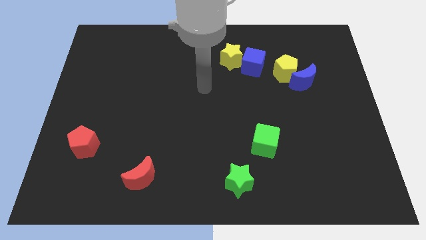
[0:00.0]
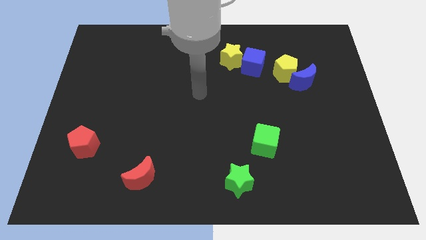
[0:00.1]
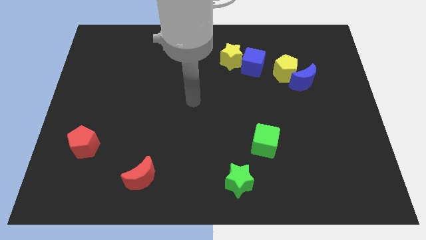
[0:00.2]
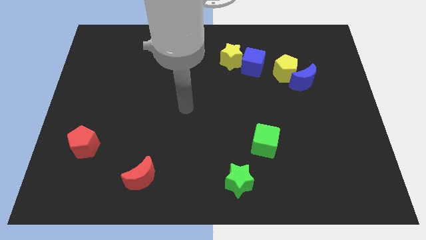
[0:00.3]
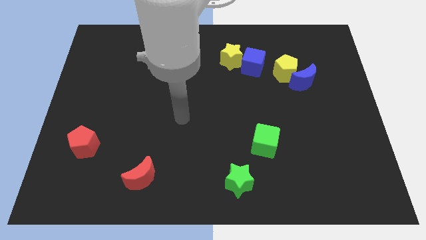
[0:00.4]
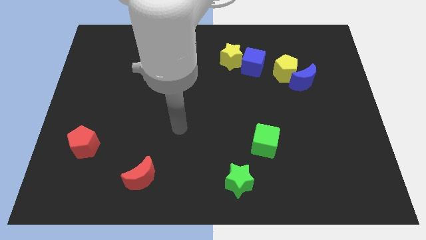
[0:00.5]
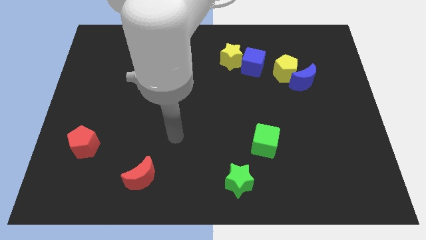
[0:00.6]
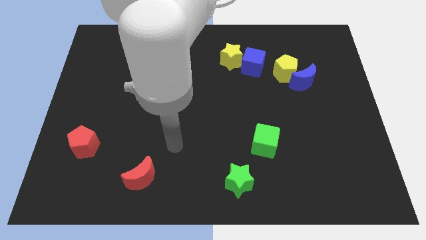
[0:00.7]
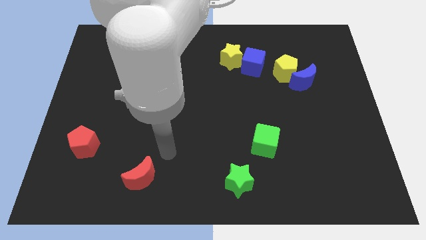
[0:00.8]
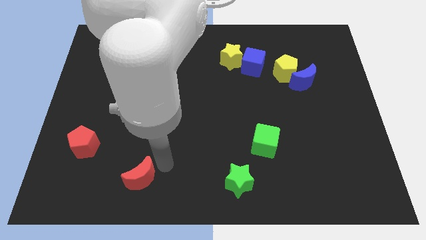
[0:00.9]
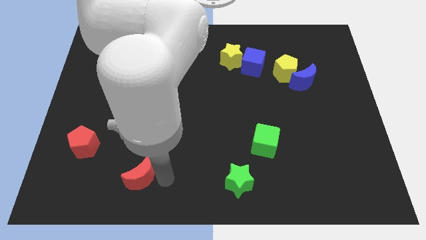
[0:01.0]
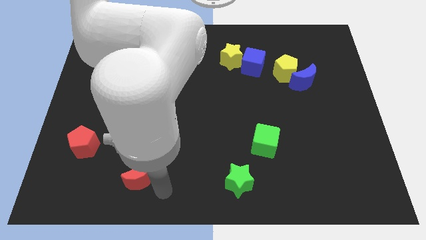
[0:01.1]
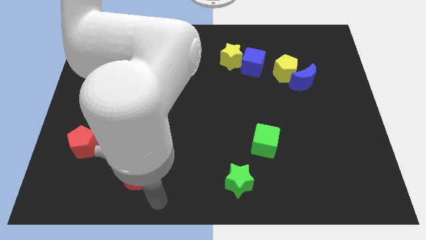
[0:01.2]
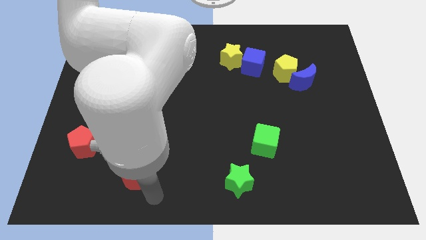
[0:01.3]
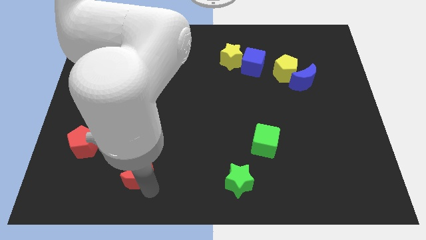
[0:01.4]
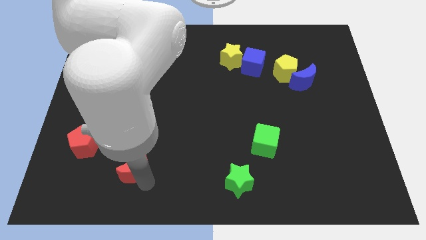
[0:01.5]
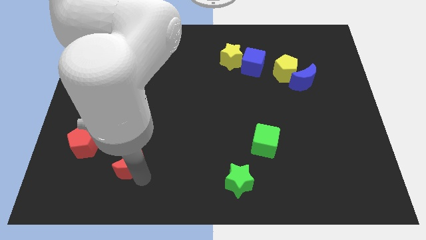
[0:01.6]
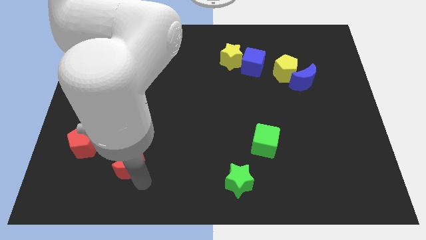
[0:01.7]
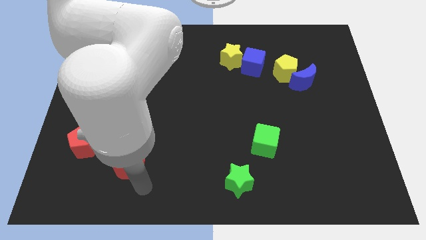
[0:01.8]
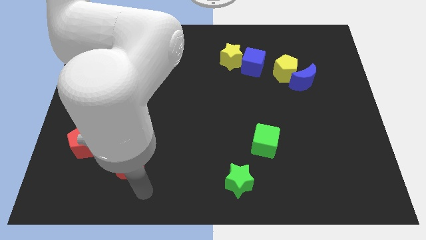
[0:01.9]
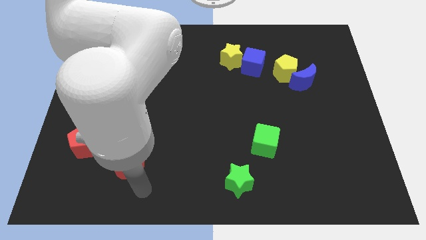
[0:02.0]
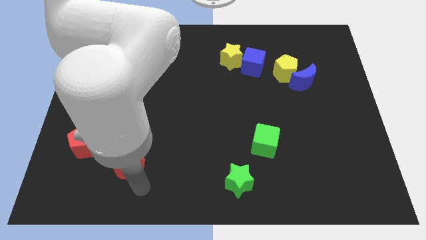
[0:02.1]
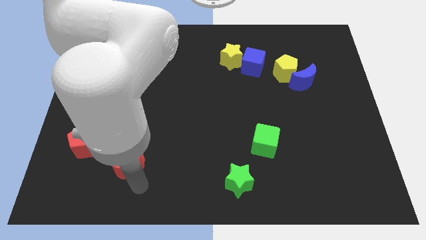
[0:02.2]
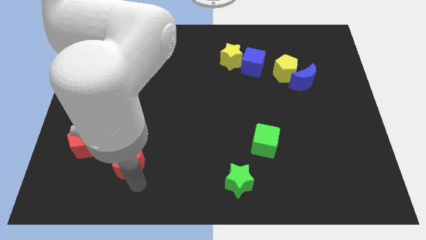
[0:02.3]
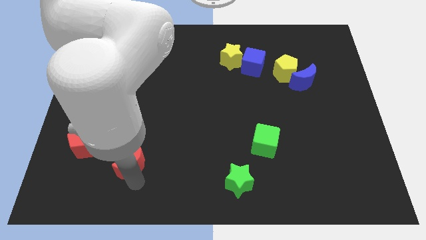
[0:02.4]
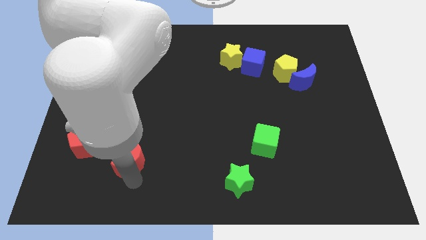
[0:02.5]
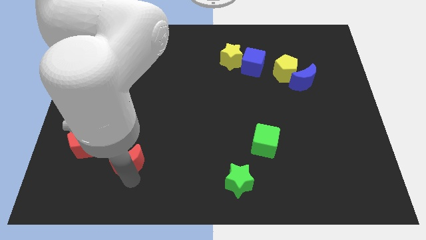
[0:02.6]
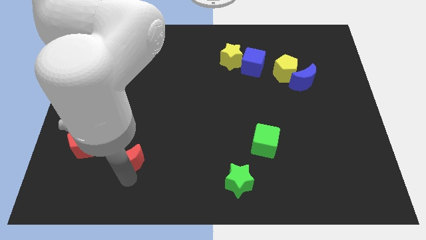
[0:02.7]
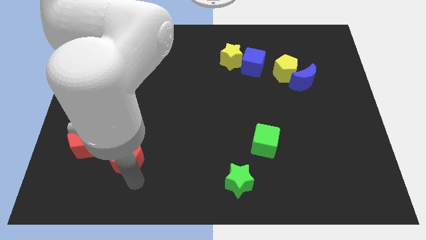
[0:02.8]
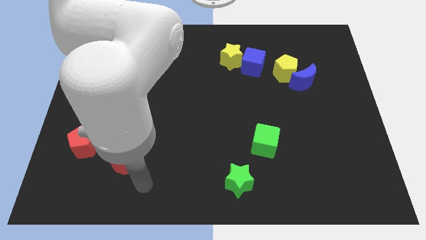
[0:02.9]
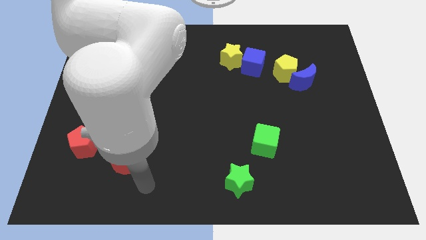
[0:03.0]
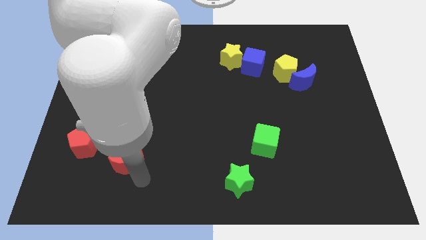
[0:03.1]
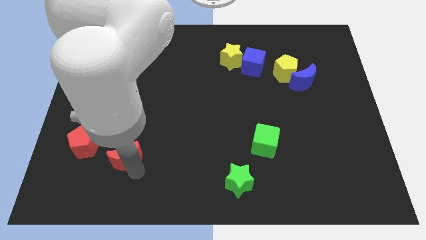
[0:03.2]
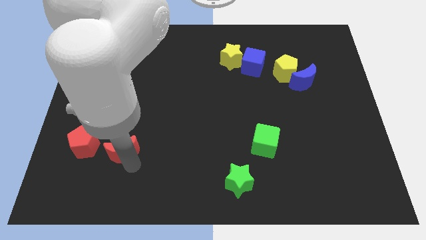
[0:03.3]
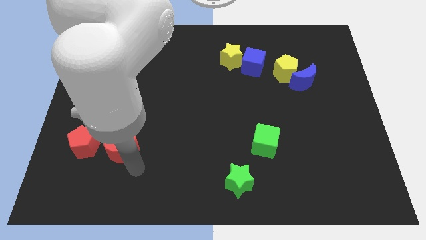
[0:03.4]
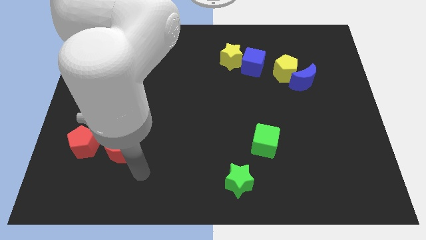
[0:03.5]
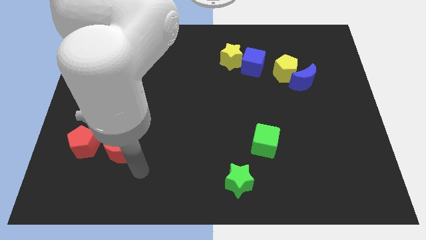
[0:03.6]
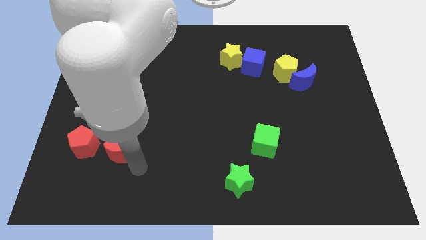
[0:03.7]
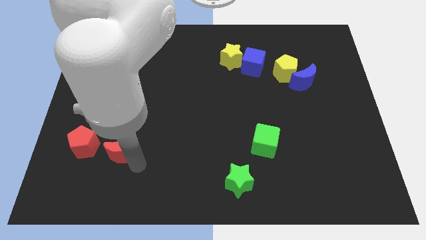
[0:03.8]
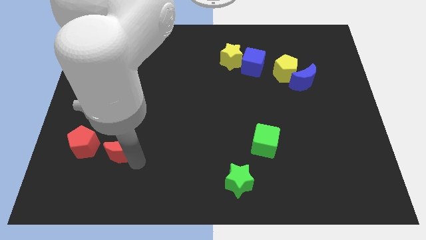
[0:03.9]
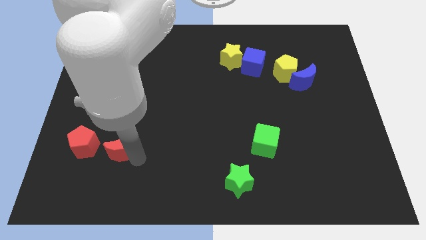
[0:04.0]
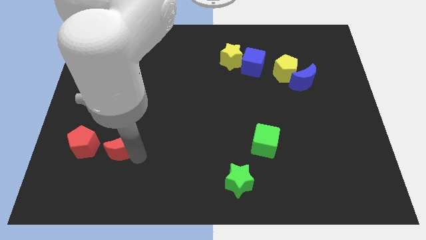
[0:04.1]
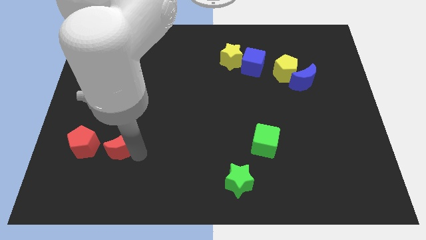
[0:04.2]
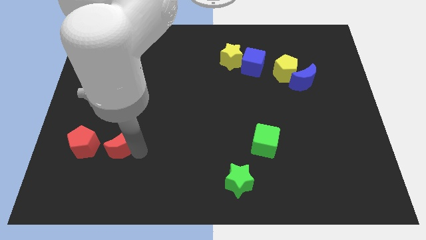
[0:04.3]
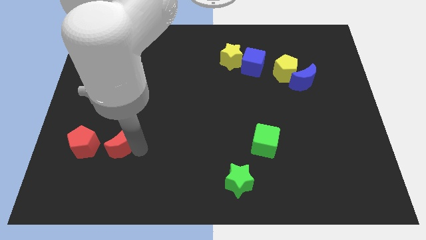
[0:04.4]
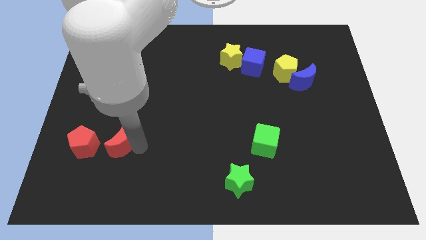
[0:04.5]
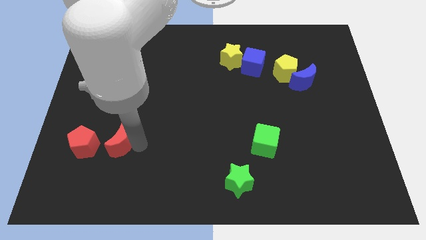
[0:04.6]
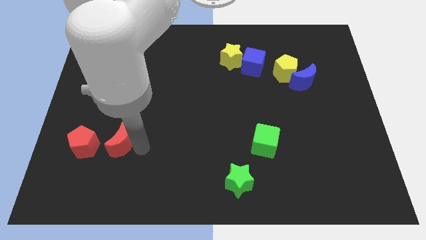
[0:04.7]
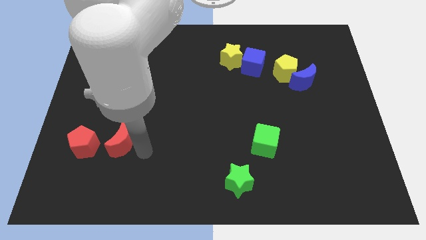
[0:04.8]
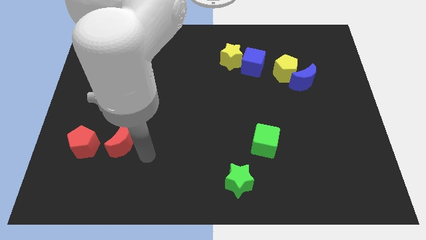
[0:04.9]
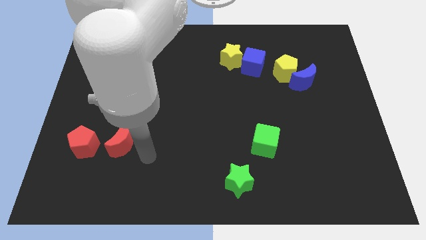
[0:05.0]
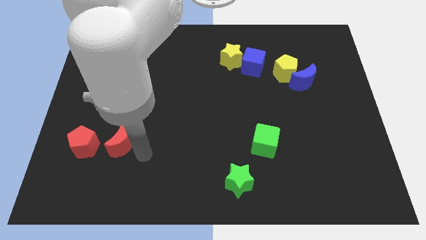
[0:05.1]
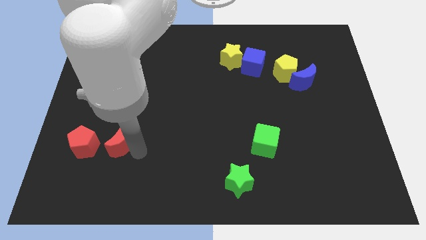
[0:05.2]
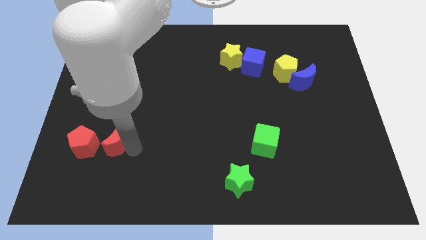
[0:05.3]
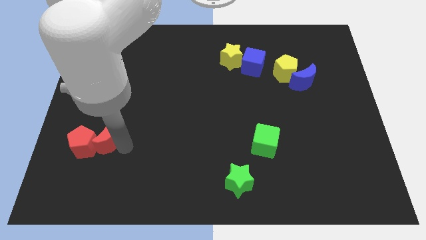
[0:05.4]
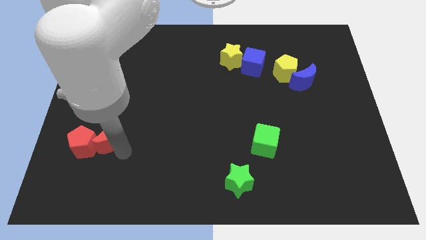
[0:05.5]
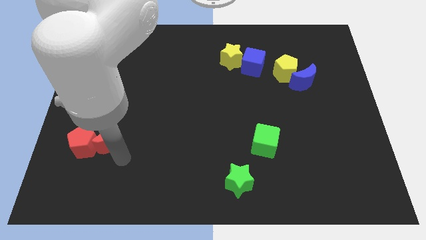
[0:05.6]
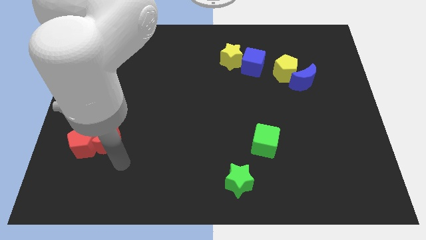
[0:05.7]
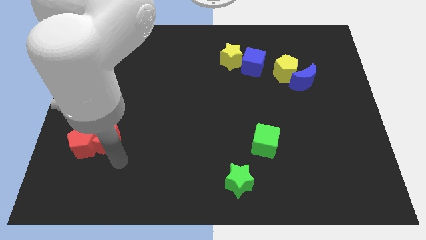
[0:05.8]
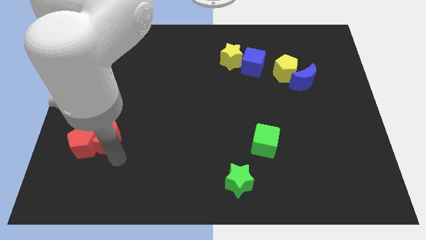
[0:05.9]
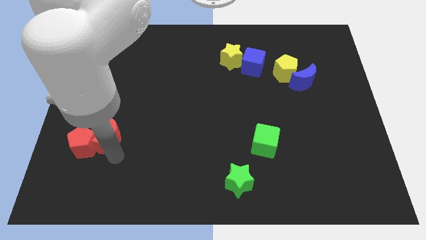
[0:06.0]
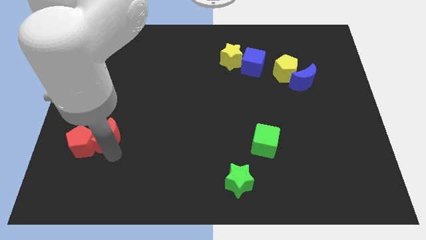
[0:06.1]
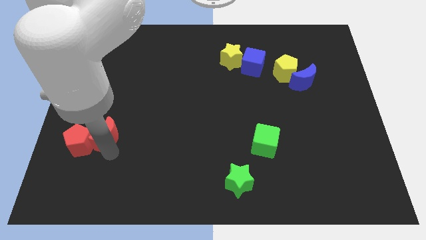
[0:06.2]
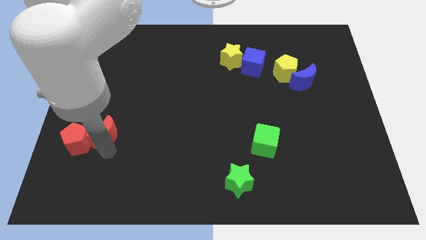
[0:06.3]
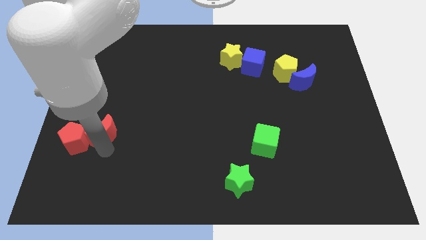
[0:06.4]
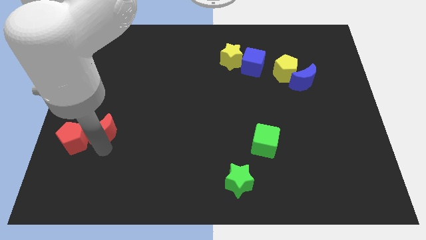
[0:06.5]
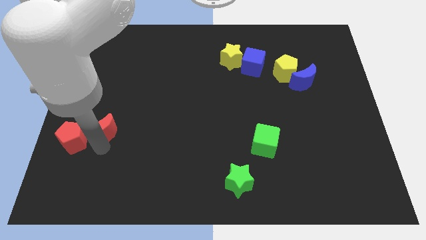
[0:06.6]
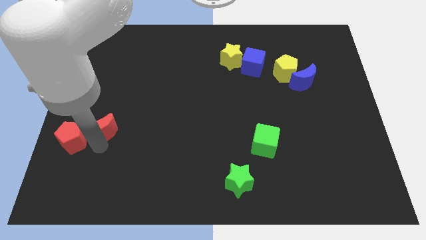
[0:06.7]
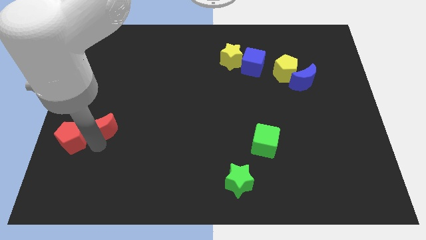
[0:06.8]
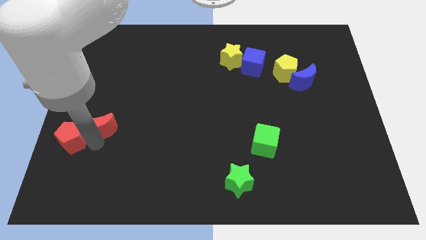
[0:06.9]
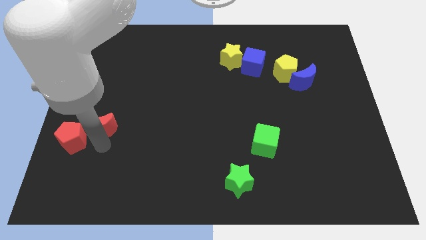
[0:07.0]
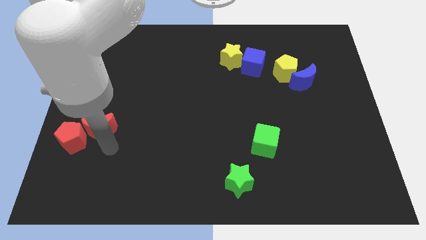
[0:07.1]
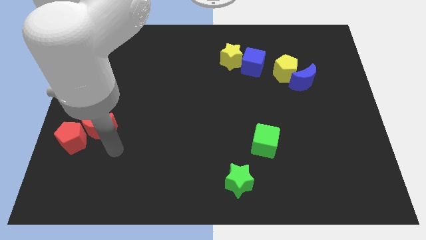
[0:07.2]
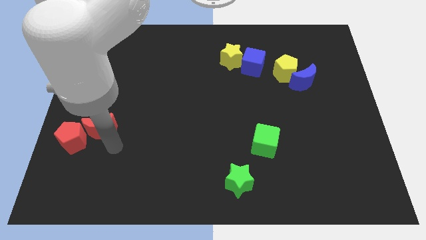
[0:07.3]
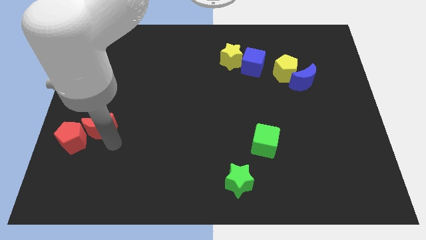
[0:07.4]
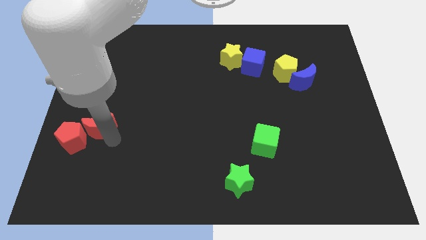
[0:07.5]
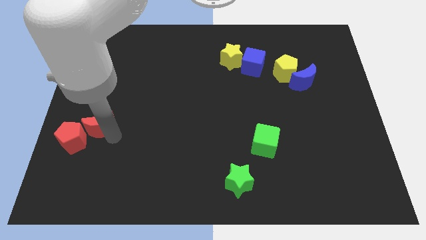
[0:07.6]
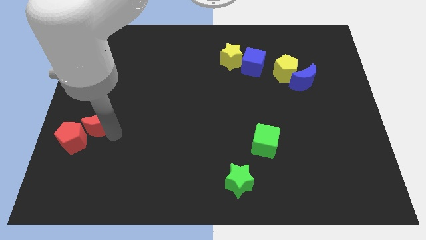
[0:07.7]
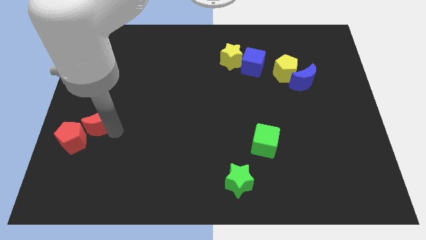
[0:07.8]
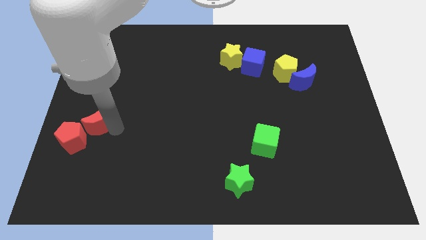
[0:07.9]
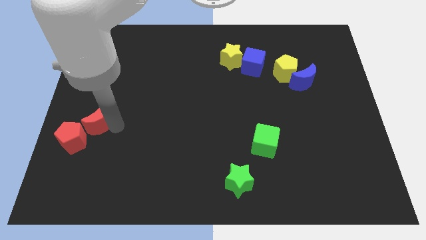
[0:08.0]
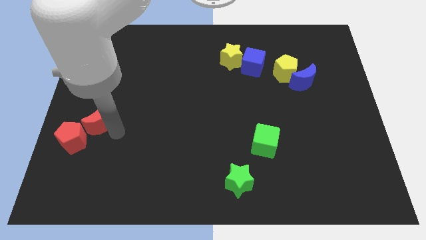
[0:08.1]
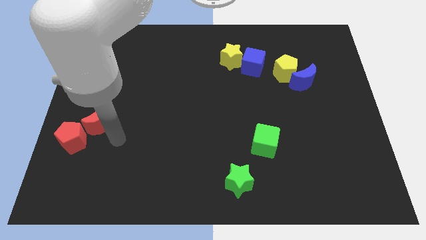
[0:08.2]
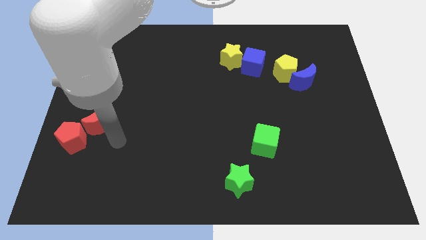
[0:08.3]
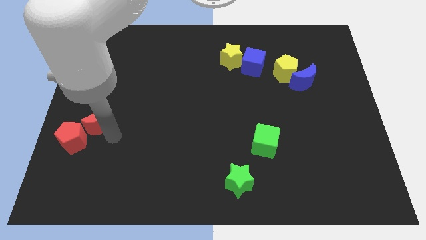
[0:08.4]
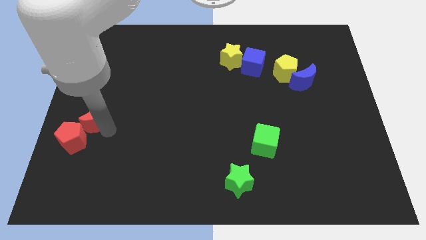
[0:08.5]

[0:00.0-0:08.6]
put the red moon to the top side of the red pentagon
